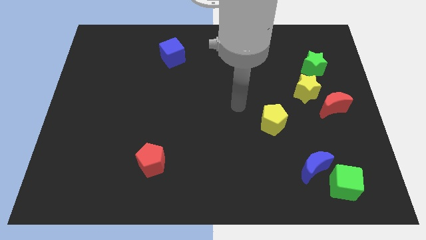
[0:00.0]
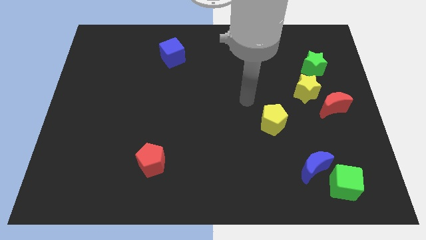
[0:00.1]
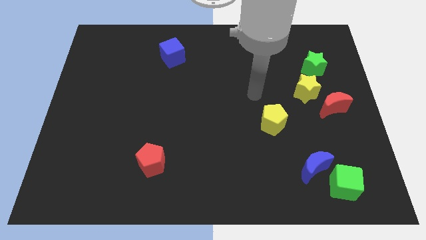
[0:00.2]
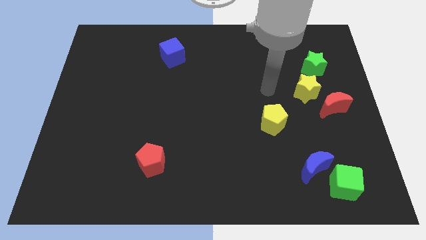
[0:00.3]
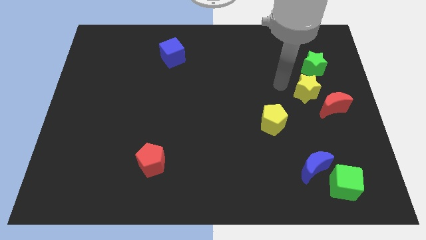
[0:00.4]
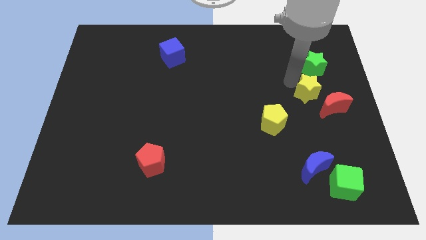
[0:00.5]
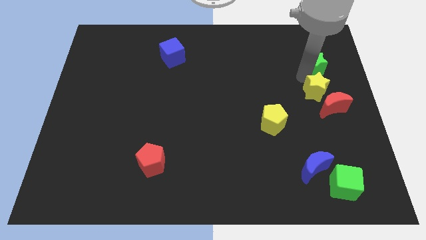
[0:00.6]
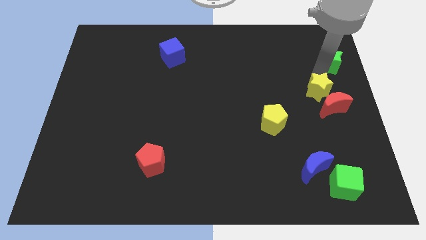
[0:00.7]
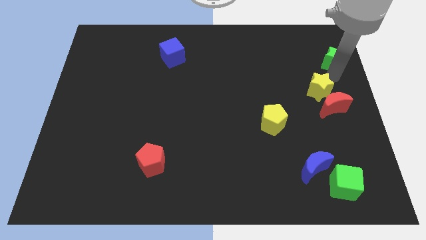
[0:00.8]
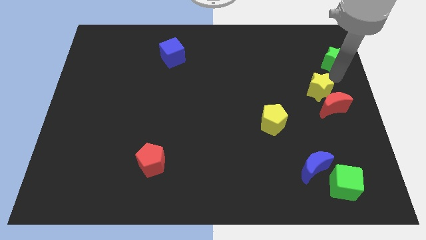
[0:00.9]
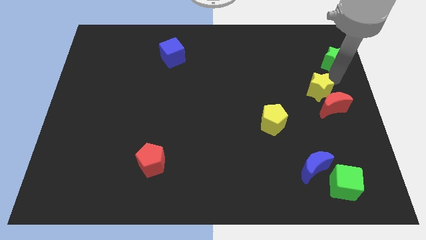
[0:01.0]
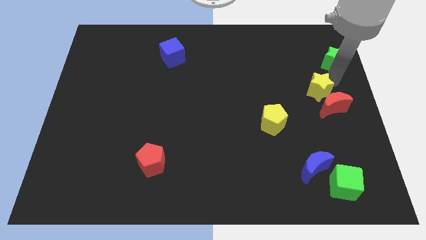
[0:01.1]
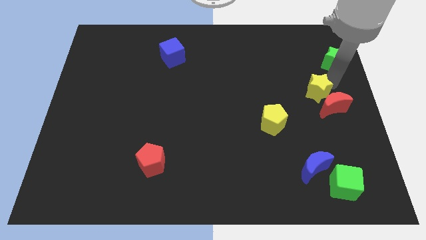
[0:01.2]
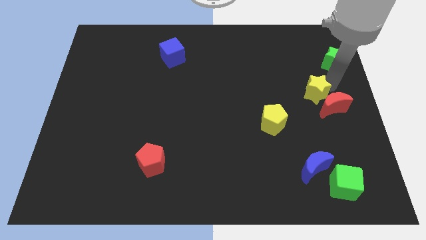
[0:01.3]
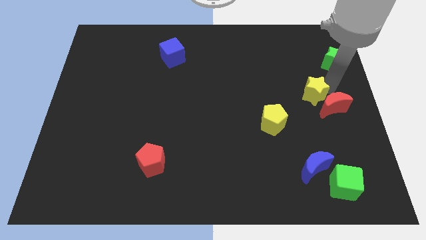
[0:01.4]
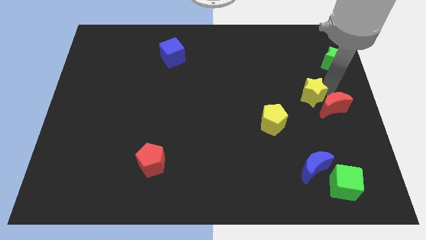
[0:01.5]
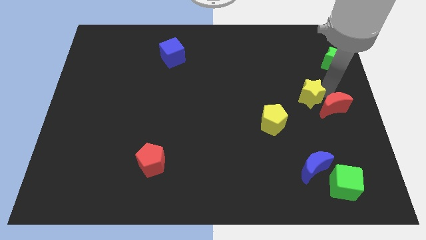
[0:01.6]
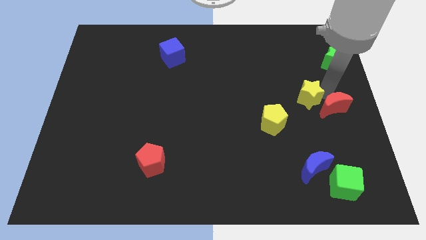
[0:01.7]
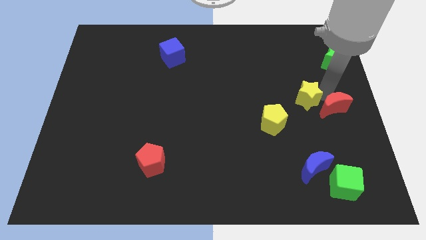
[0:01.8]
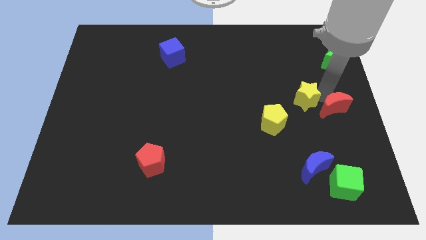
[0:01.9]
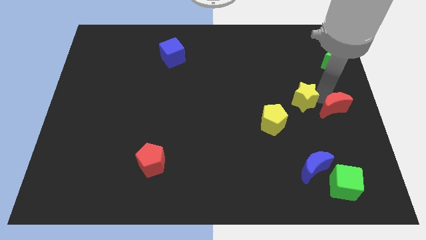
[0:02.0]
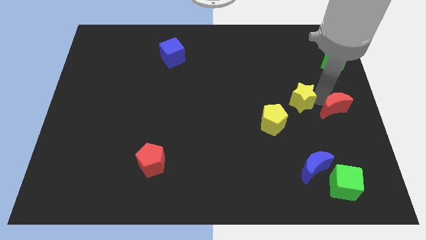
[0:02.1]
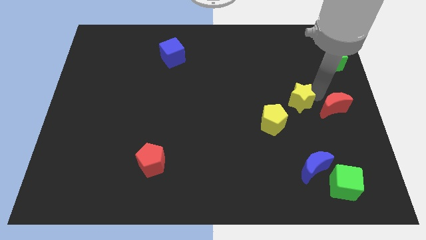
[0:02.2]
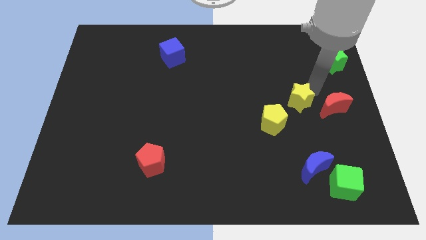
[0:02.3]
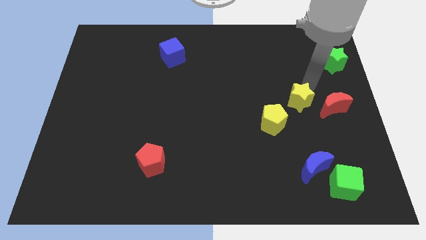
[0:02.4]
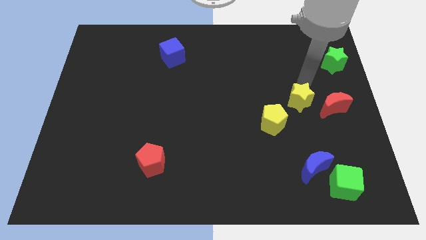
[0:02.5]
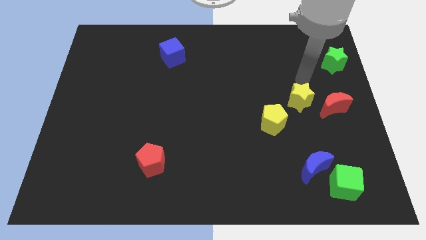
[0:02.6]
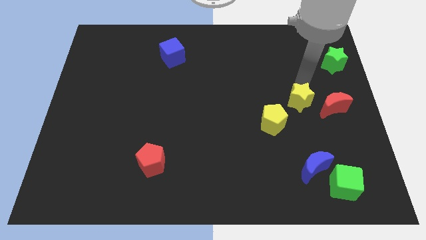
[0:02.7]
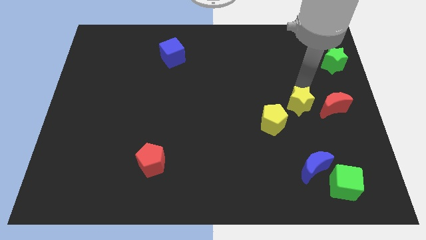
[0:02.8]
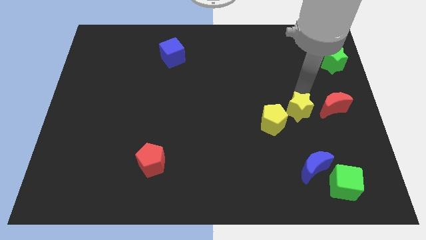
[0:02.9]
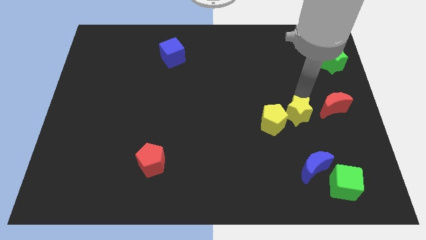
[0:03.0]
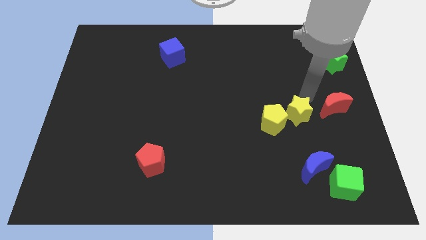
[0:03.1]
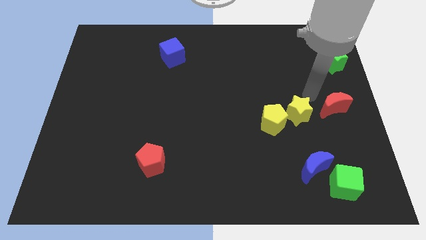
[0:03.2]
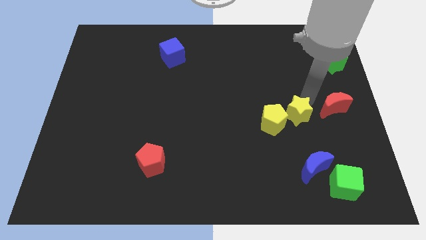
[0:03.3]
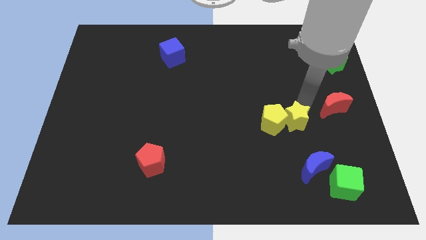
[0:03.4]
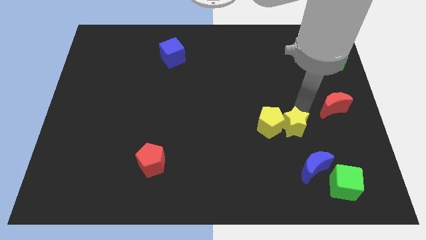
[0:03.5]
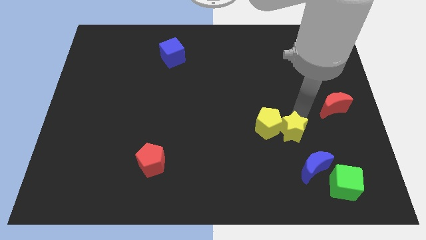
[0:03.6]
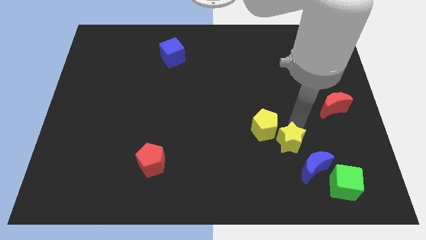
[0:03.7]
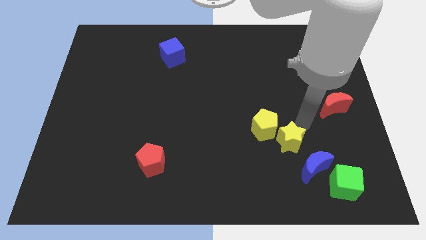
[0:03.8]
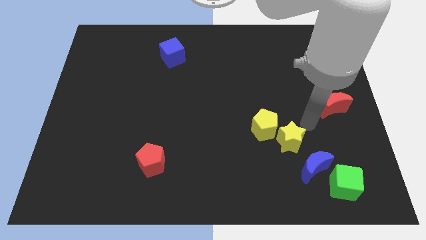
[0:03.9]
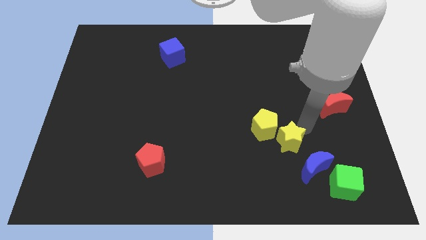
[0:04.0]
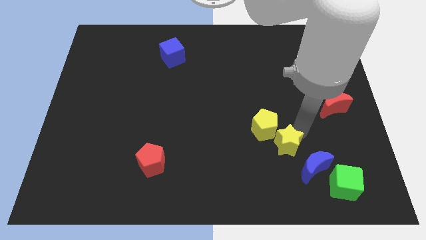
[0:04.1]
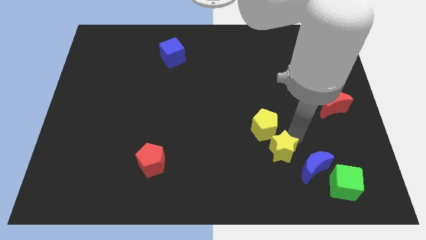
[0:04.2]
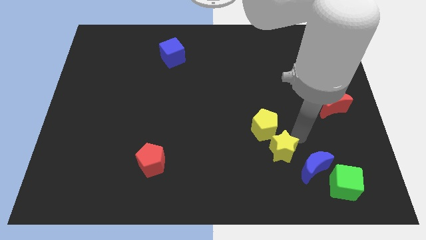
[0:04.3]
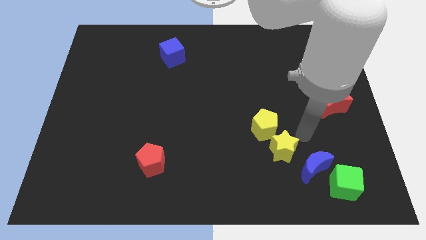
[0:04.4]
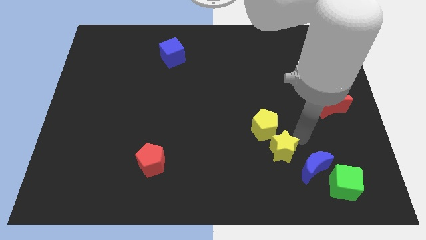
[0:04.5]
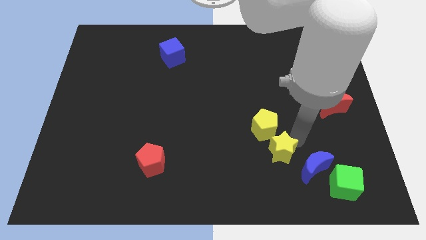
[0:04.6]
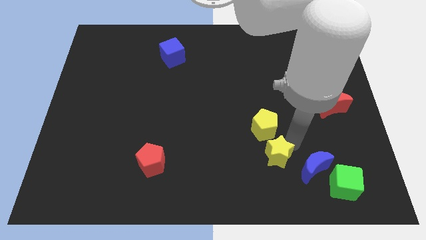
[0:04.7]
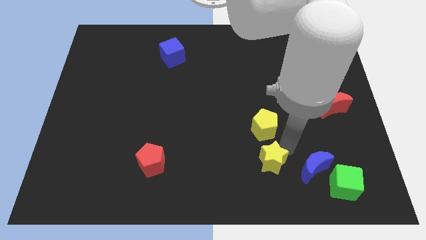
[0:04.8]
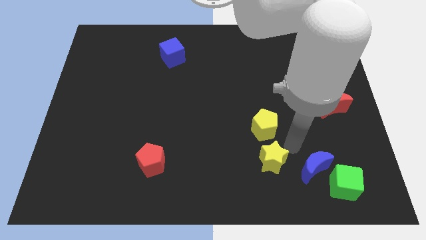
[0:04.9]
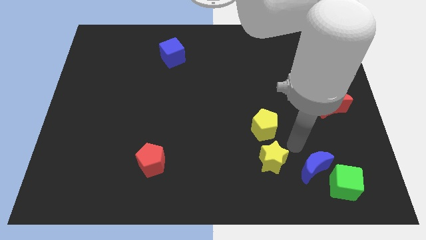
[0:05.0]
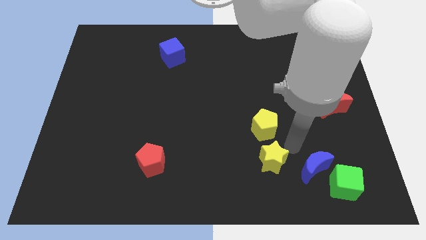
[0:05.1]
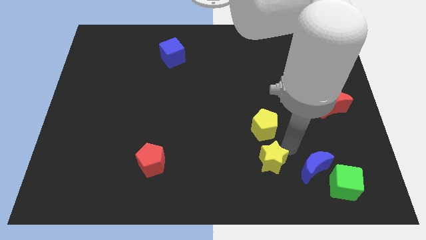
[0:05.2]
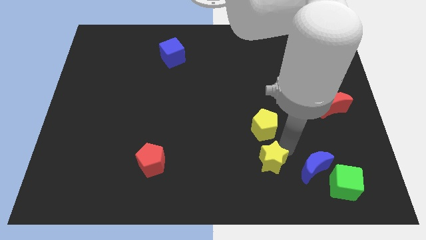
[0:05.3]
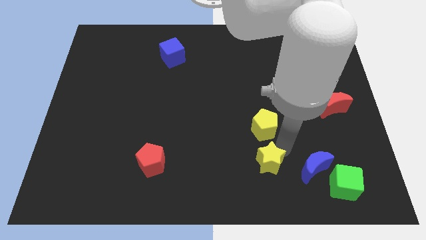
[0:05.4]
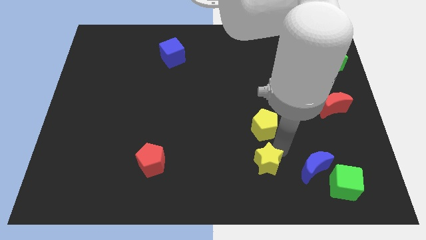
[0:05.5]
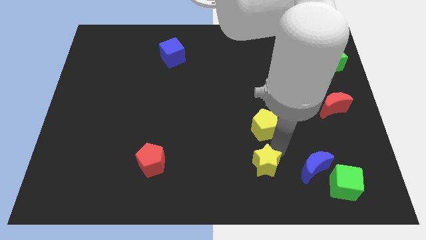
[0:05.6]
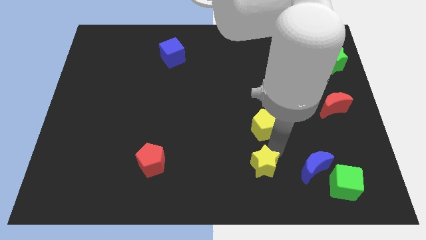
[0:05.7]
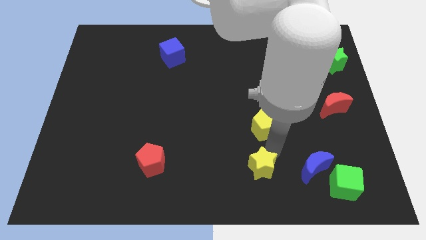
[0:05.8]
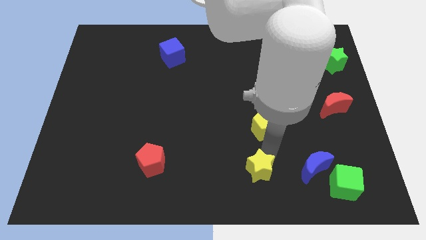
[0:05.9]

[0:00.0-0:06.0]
slide the yellow star to the bottom

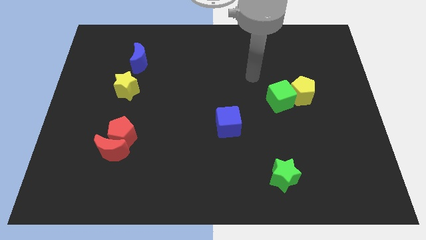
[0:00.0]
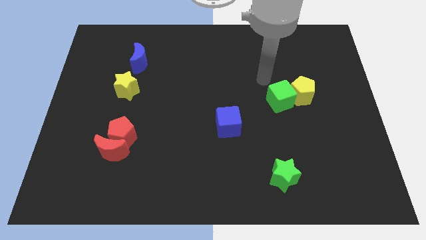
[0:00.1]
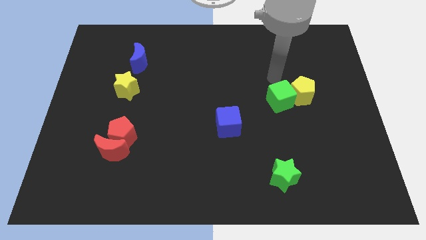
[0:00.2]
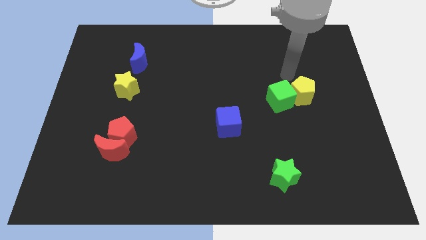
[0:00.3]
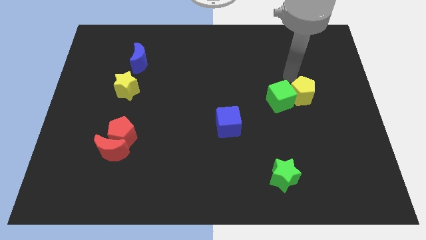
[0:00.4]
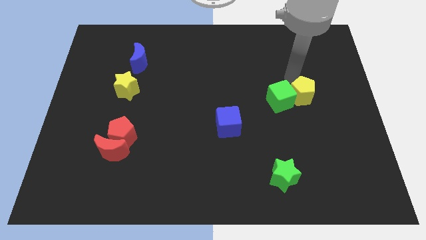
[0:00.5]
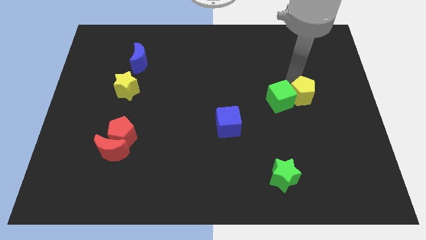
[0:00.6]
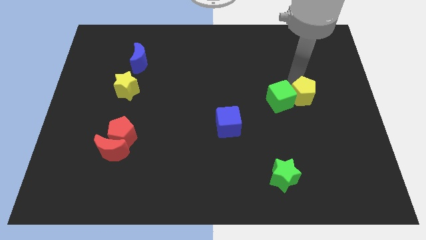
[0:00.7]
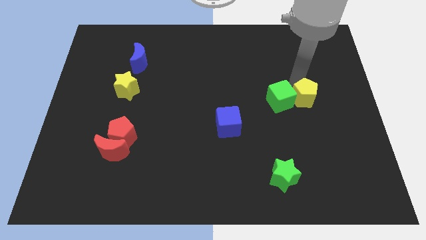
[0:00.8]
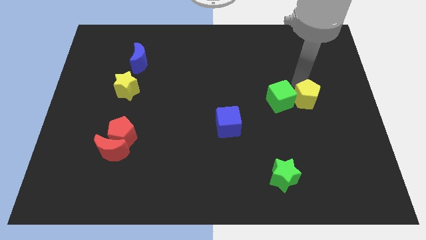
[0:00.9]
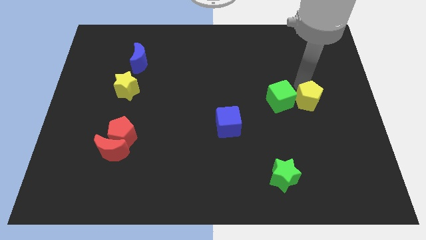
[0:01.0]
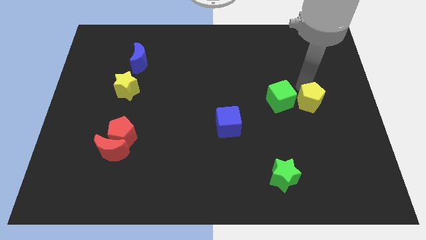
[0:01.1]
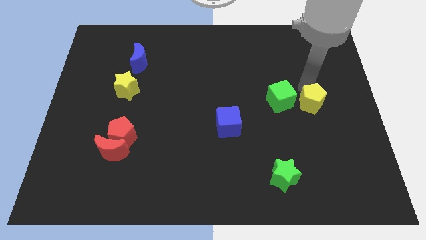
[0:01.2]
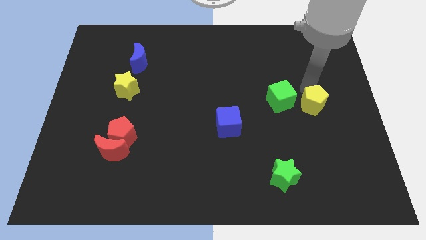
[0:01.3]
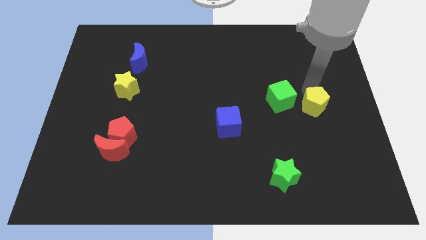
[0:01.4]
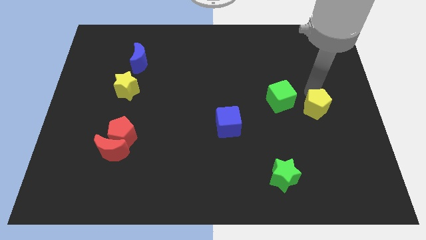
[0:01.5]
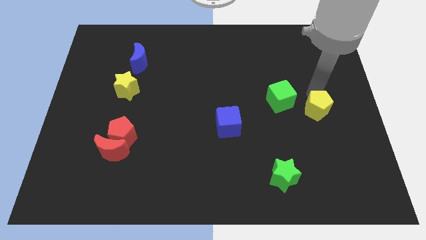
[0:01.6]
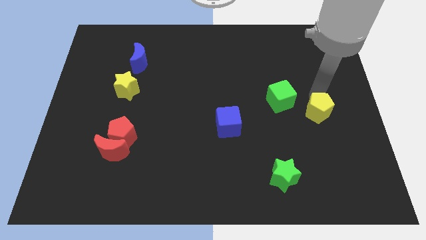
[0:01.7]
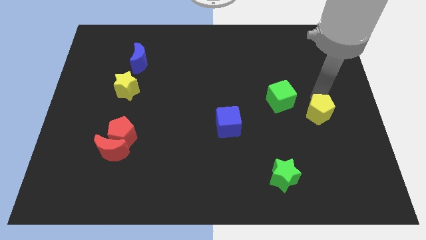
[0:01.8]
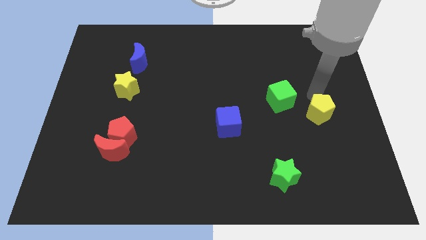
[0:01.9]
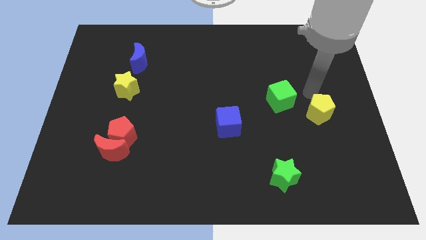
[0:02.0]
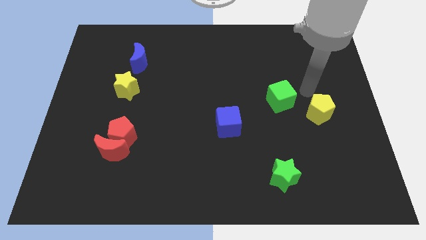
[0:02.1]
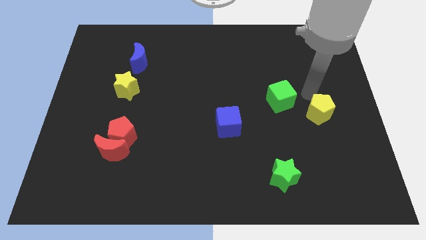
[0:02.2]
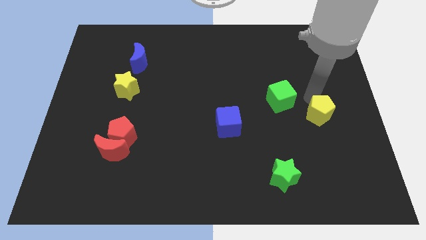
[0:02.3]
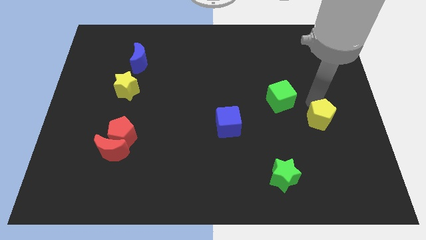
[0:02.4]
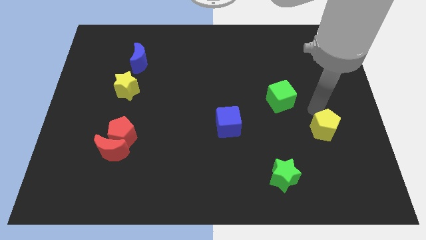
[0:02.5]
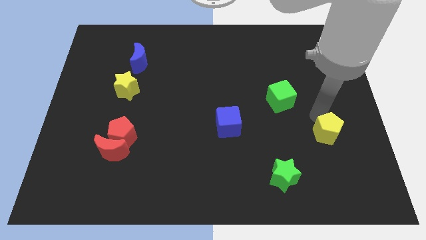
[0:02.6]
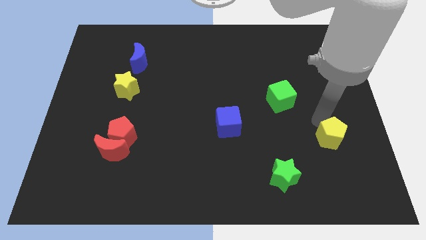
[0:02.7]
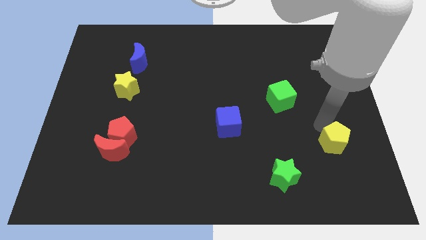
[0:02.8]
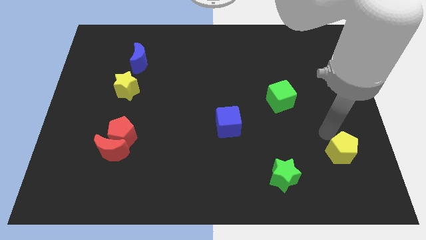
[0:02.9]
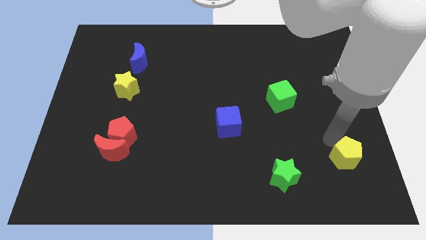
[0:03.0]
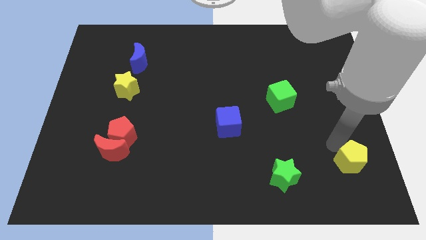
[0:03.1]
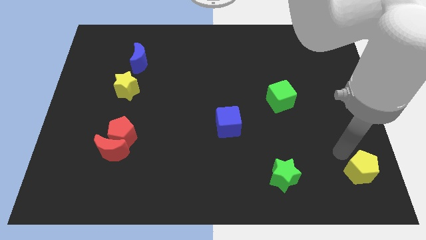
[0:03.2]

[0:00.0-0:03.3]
put the yellow pentagon to the lower right corner
